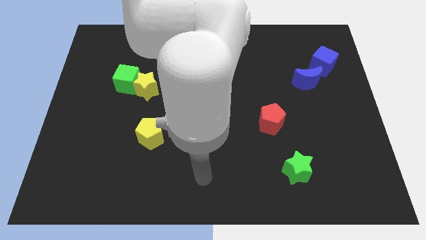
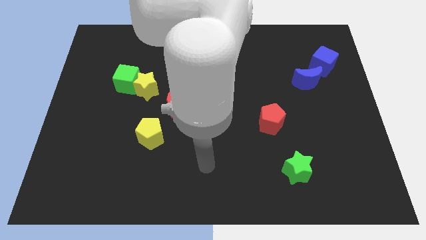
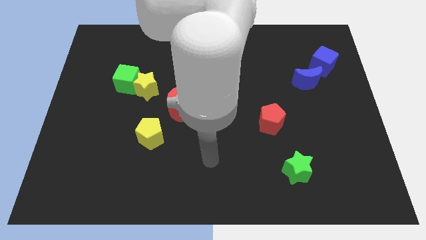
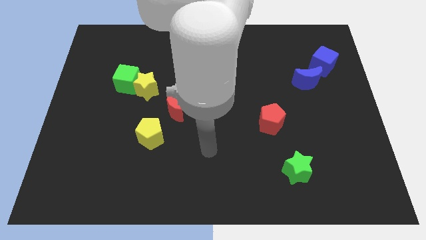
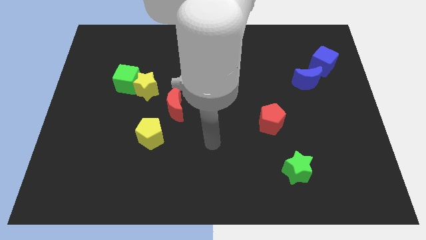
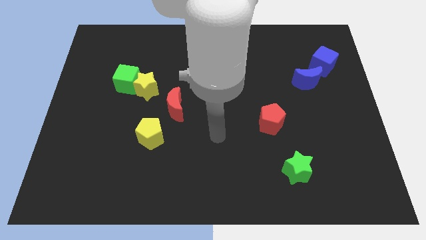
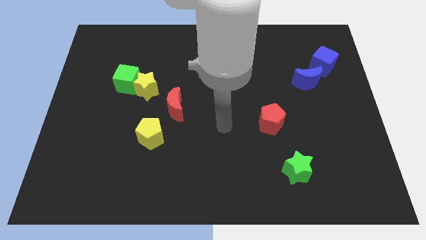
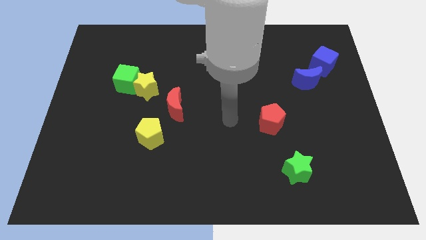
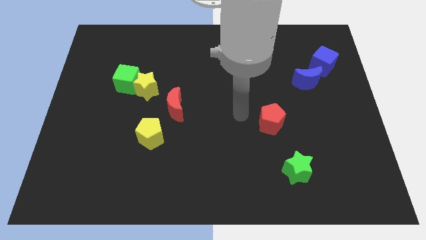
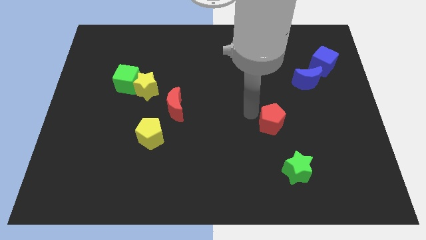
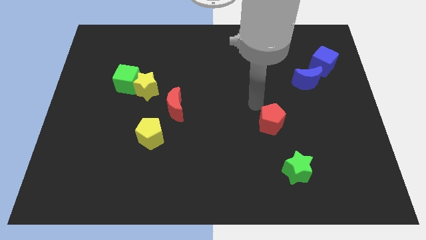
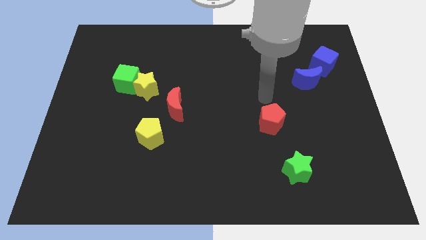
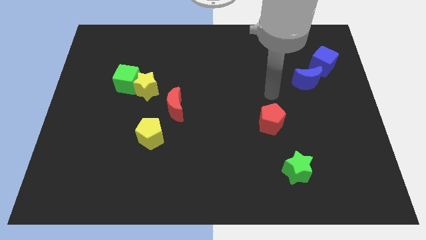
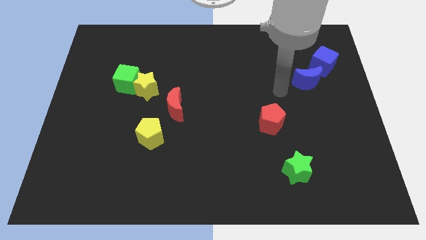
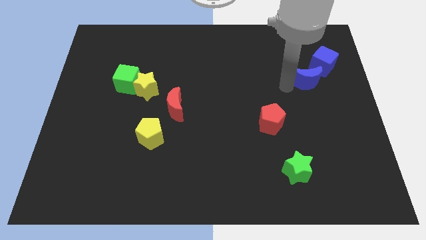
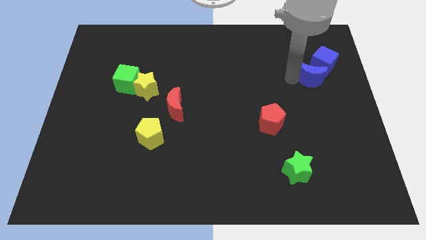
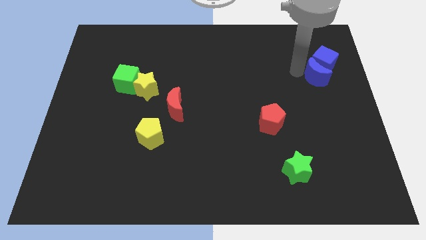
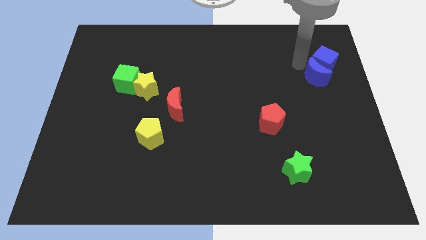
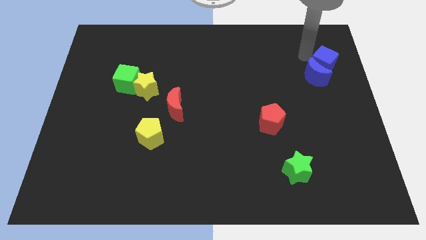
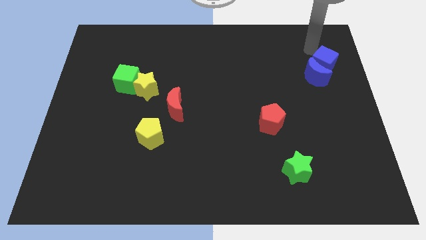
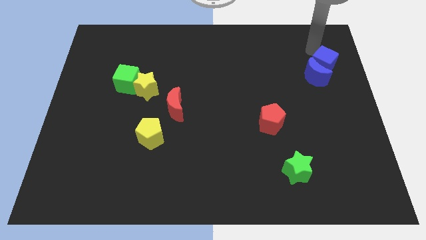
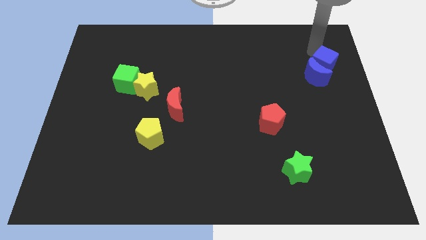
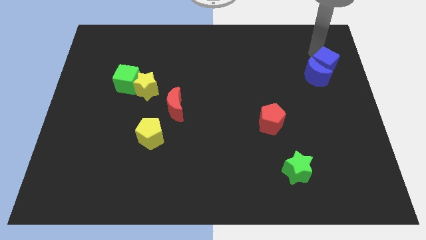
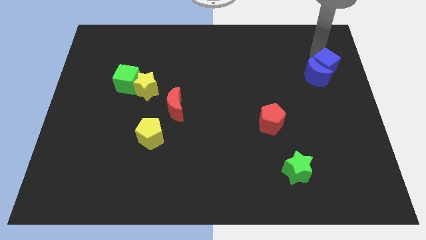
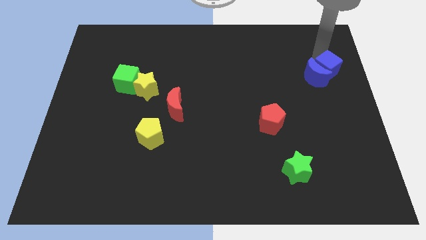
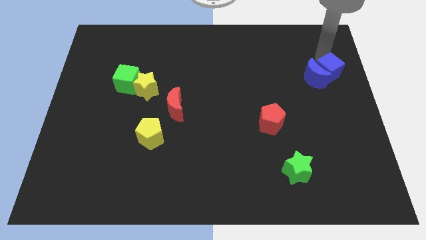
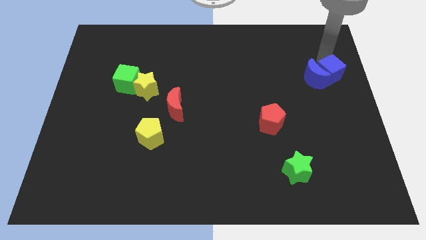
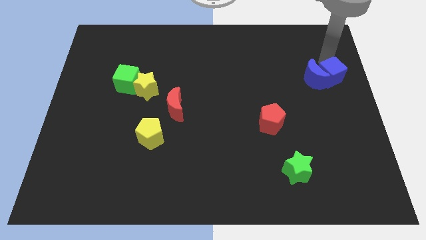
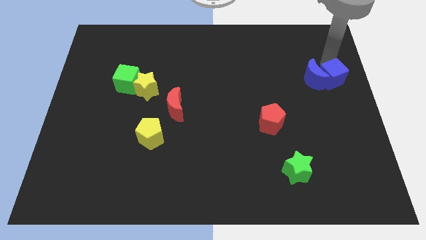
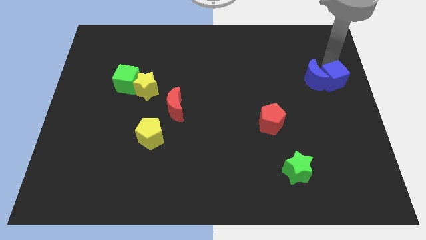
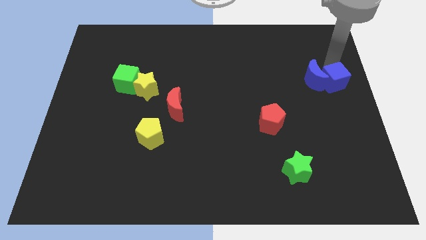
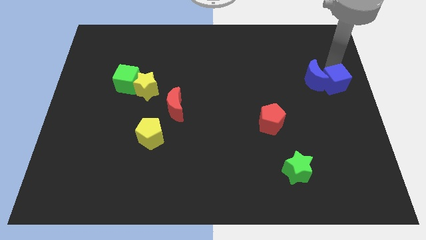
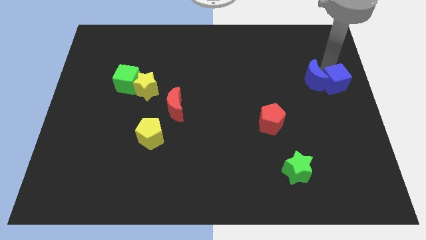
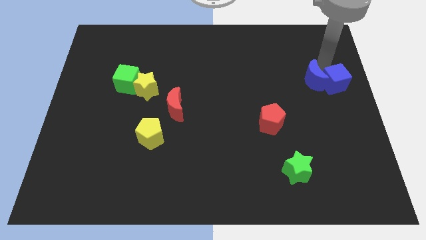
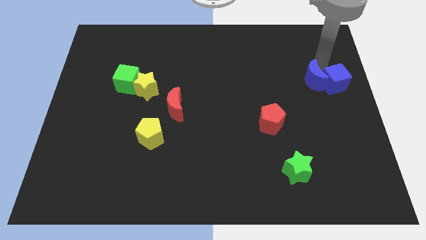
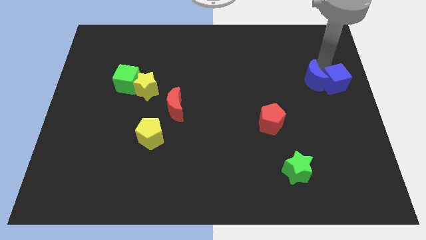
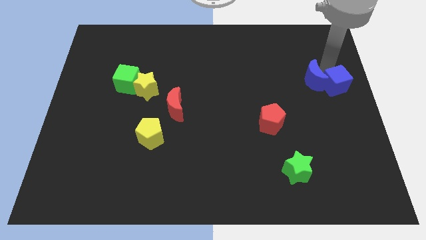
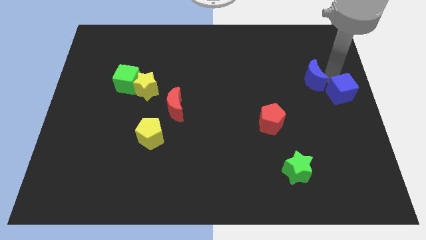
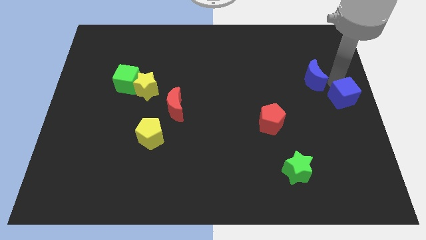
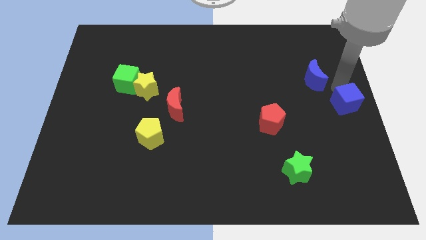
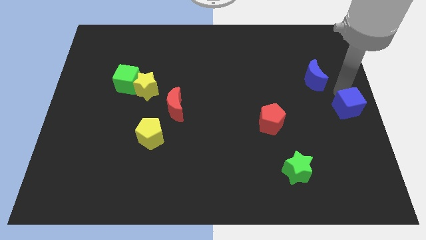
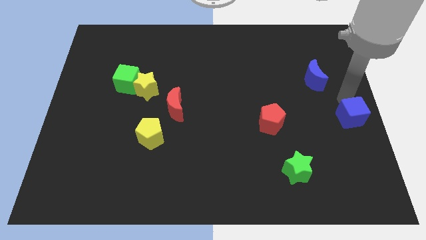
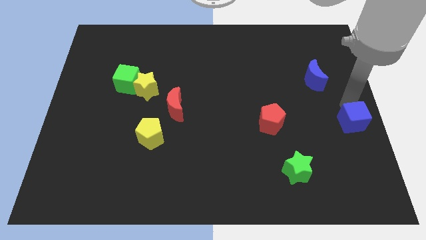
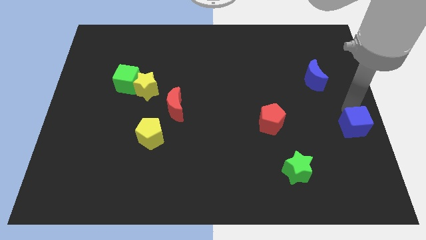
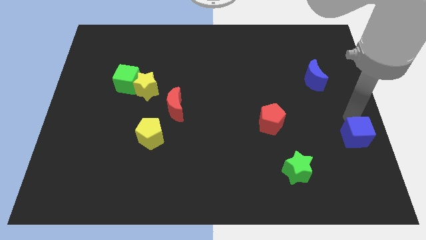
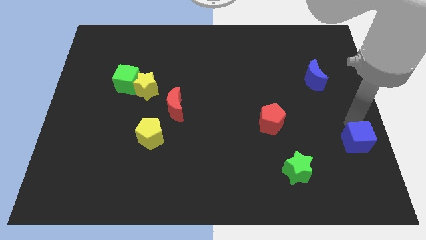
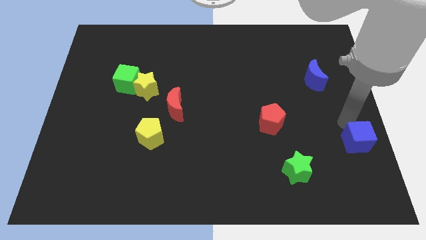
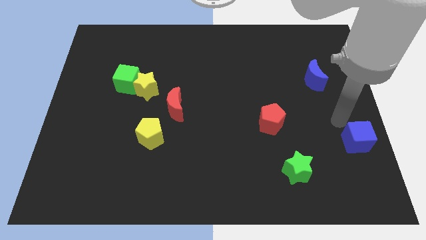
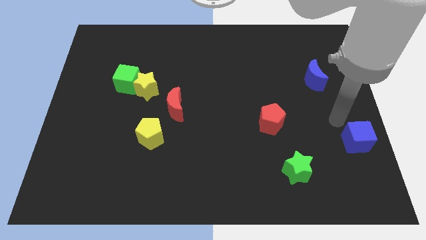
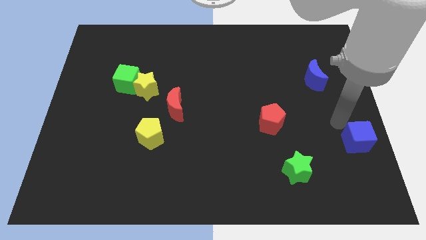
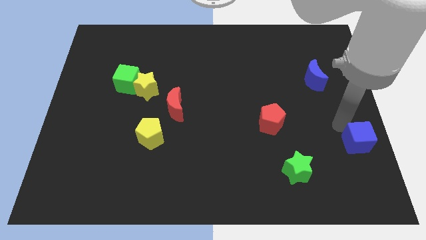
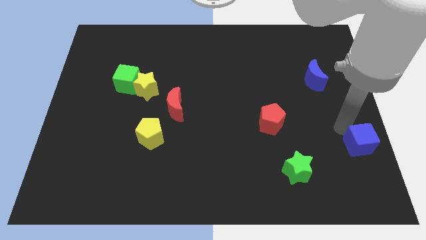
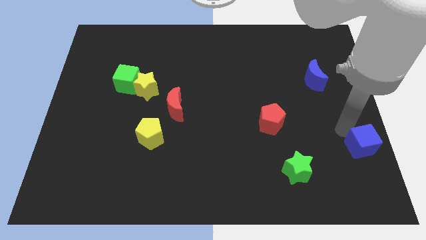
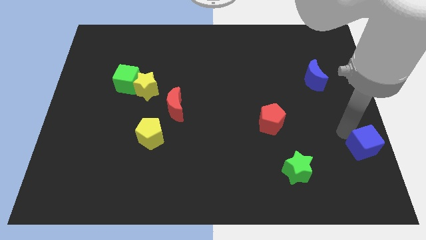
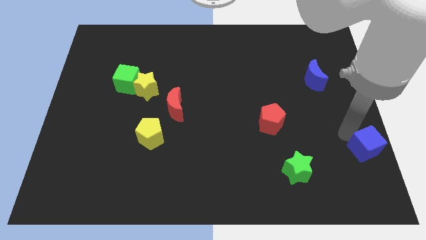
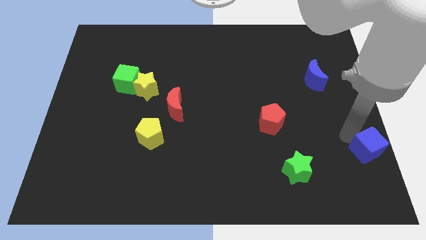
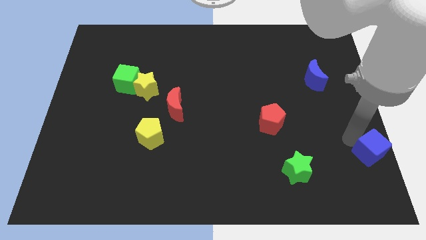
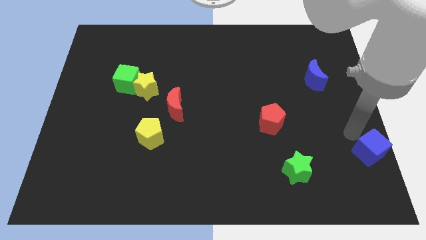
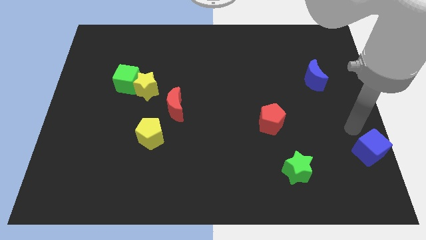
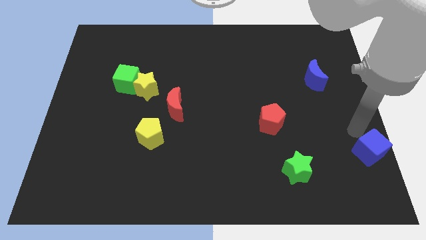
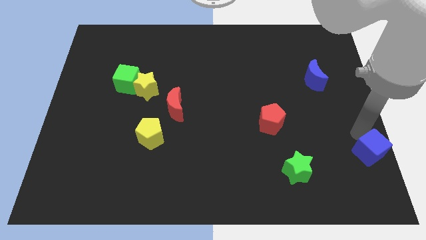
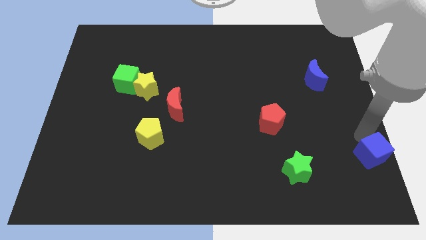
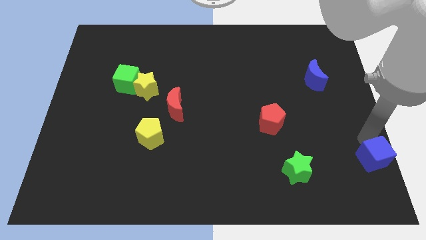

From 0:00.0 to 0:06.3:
put the blue cube to the bottom right corner
